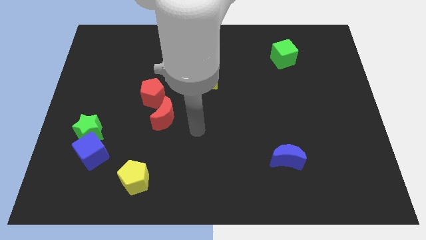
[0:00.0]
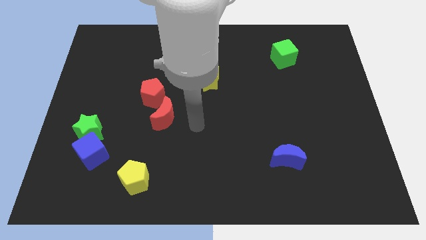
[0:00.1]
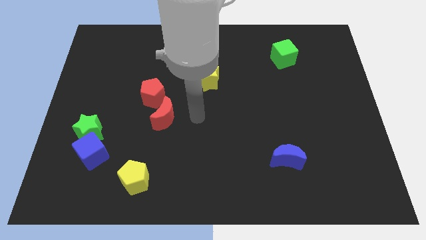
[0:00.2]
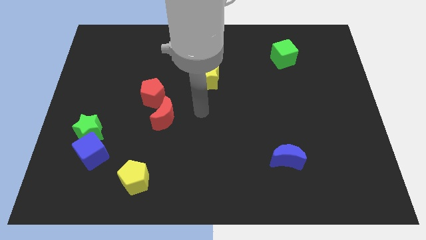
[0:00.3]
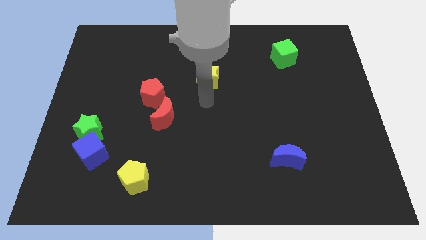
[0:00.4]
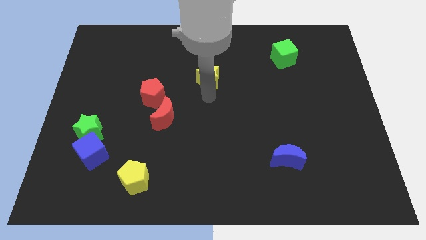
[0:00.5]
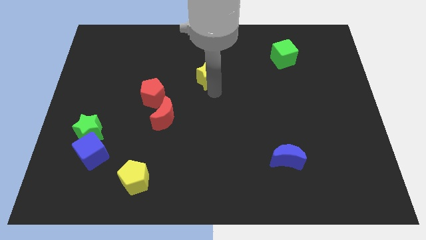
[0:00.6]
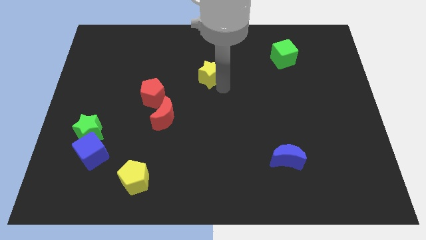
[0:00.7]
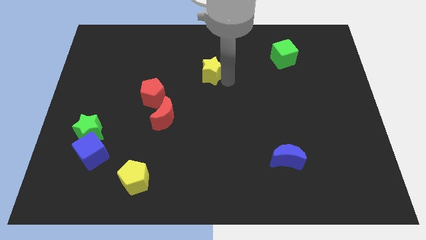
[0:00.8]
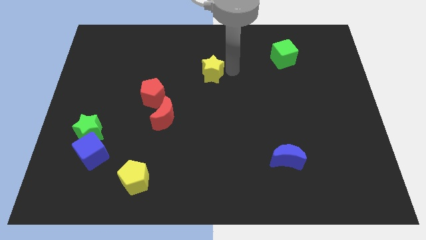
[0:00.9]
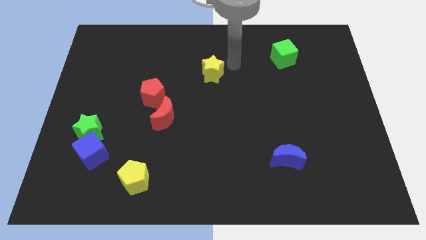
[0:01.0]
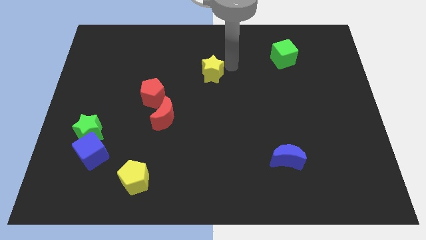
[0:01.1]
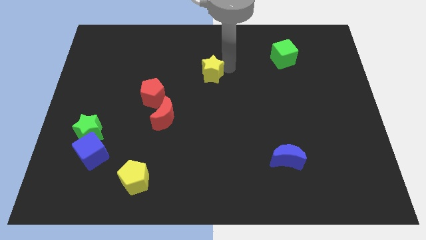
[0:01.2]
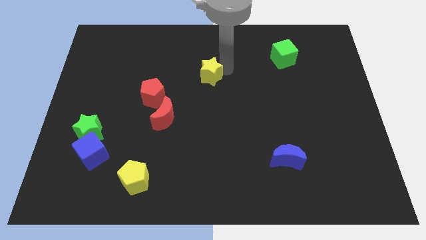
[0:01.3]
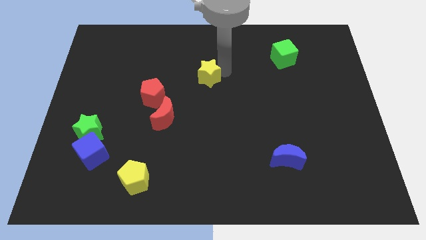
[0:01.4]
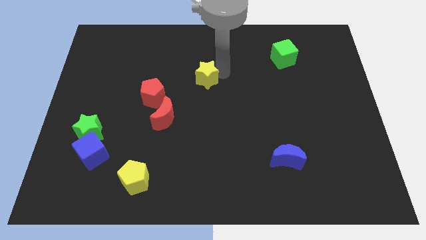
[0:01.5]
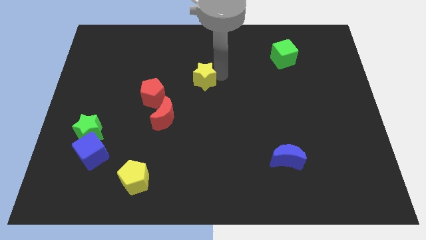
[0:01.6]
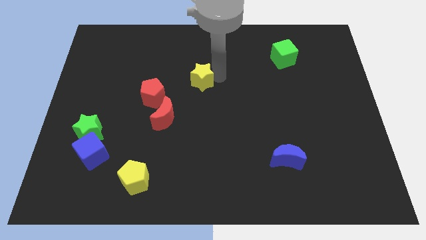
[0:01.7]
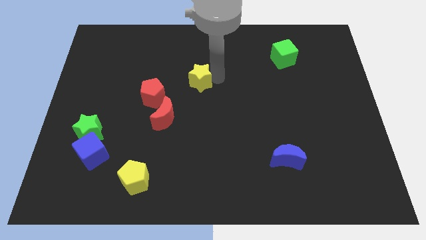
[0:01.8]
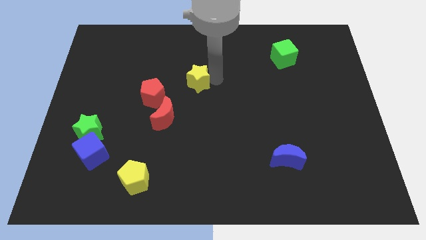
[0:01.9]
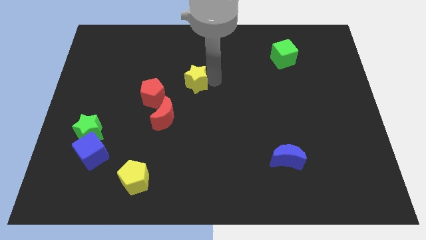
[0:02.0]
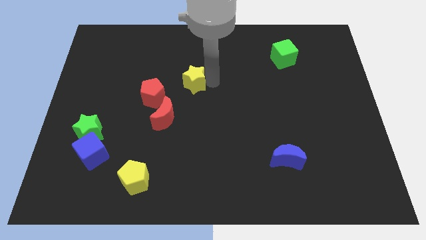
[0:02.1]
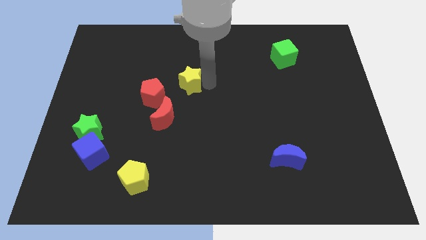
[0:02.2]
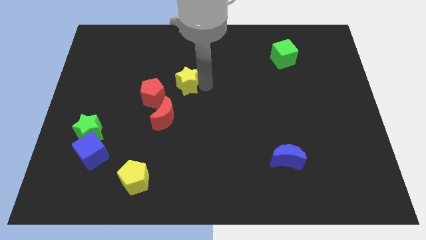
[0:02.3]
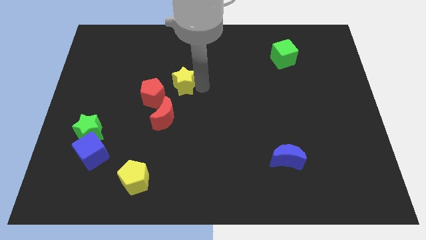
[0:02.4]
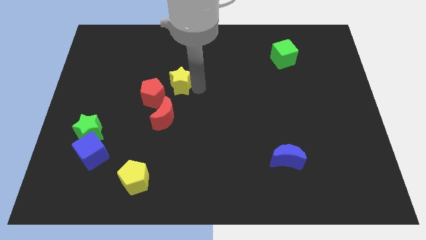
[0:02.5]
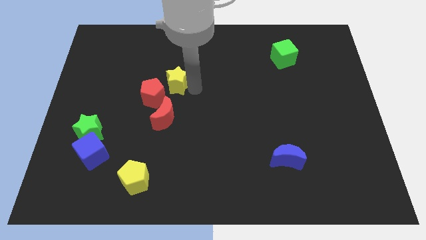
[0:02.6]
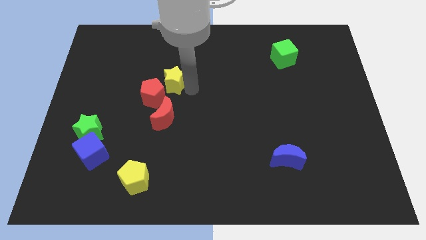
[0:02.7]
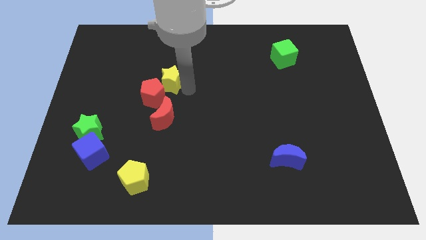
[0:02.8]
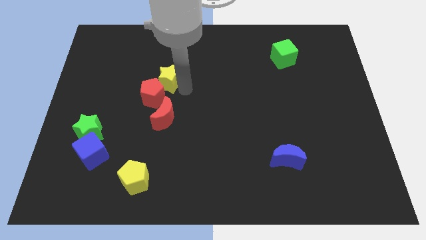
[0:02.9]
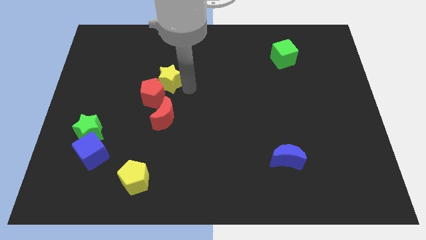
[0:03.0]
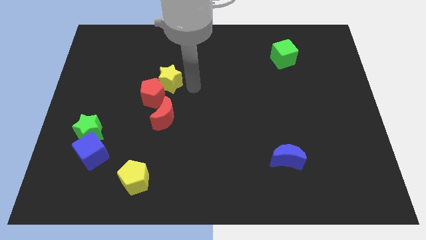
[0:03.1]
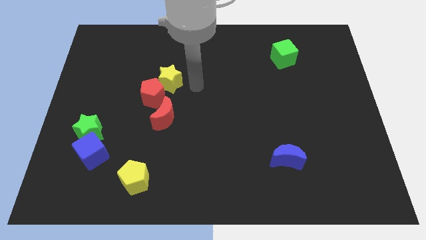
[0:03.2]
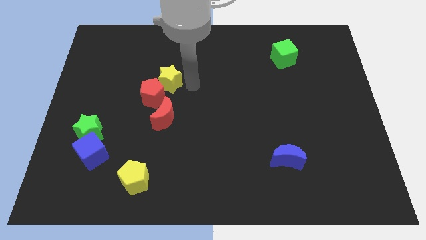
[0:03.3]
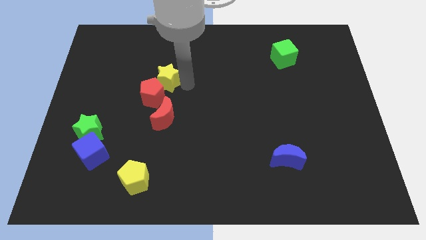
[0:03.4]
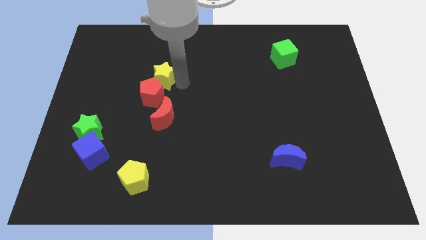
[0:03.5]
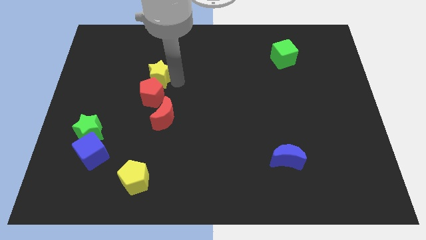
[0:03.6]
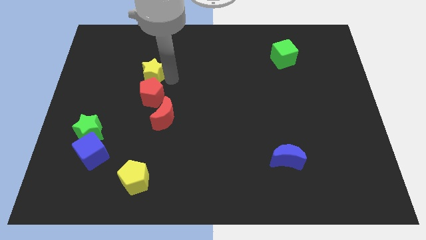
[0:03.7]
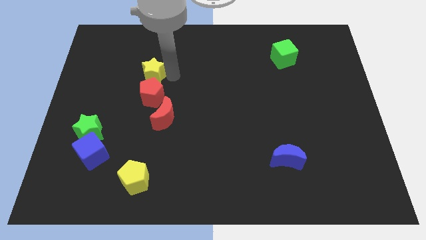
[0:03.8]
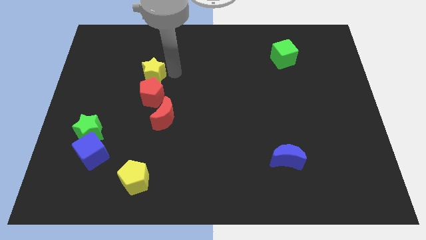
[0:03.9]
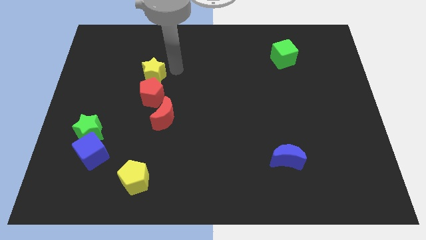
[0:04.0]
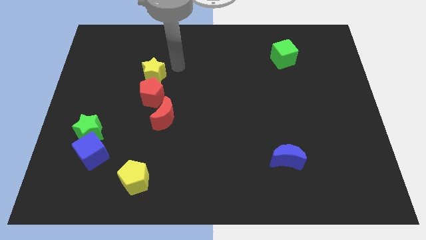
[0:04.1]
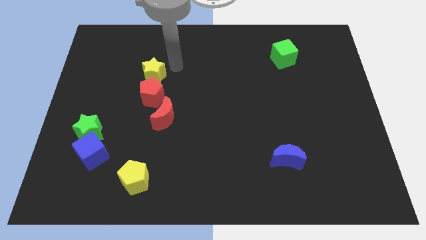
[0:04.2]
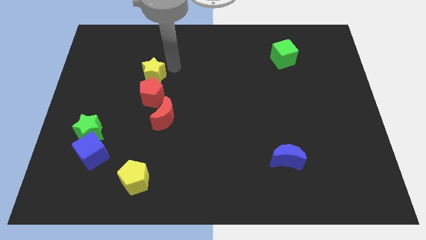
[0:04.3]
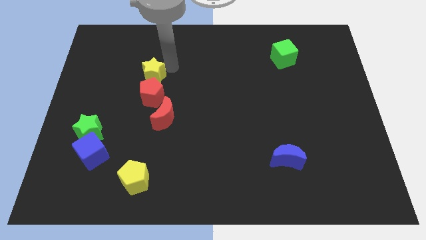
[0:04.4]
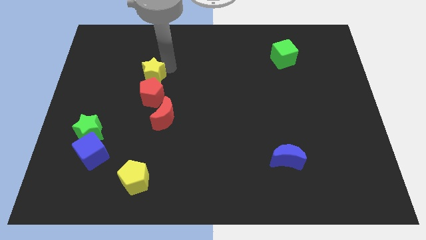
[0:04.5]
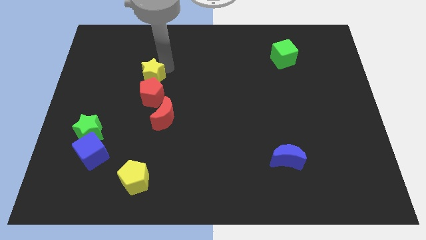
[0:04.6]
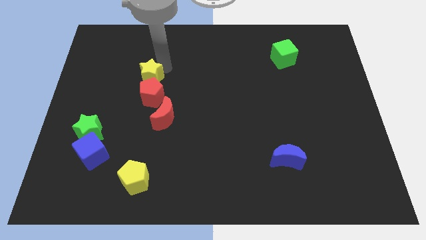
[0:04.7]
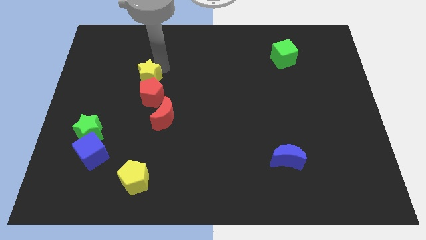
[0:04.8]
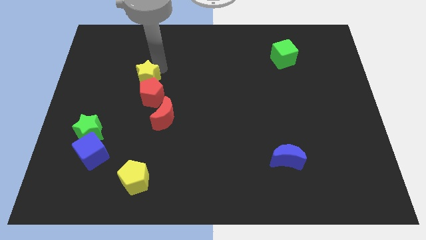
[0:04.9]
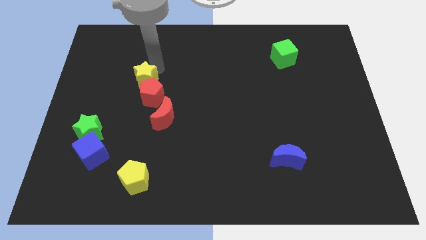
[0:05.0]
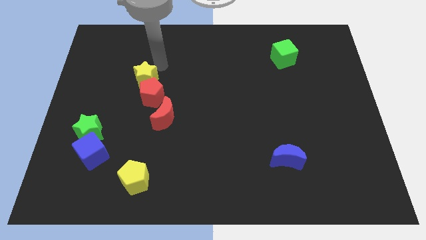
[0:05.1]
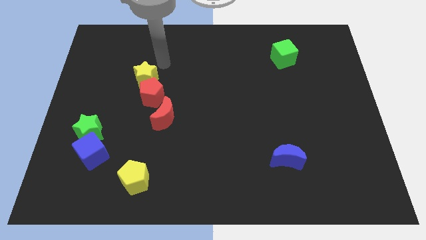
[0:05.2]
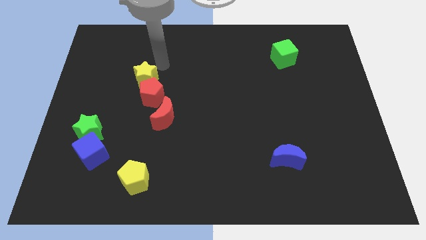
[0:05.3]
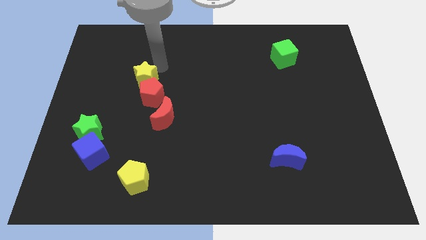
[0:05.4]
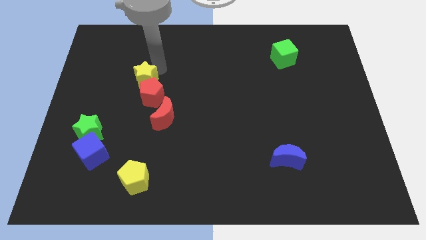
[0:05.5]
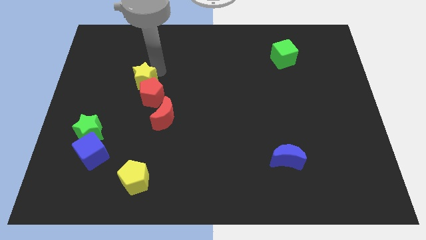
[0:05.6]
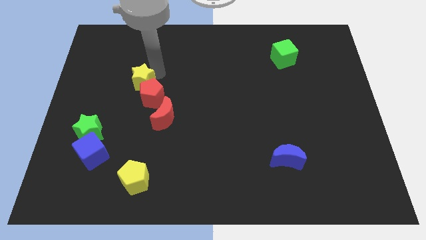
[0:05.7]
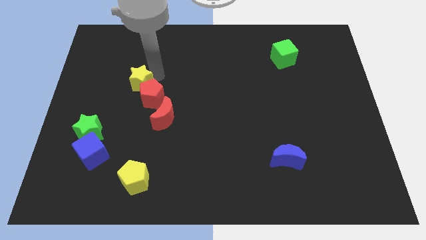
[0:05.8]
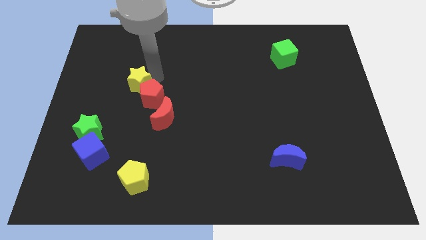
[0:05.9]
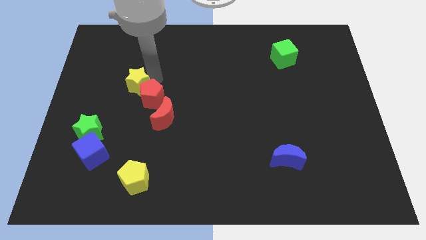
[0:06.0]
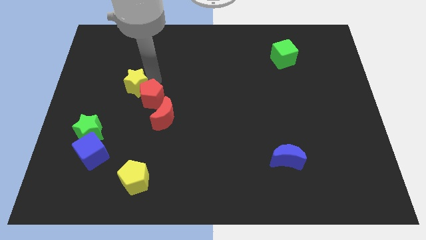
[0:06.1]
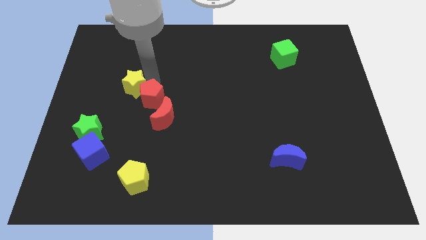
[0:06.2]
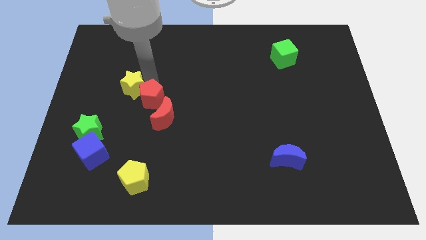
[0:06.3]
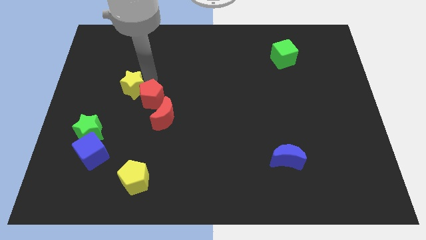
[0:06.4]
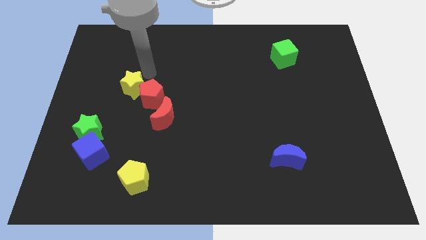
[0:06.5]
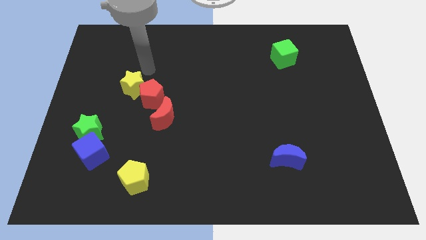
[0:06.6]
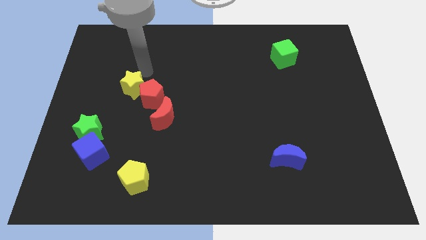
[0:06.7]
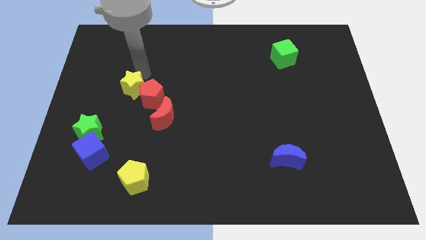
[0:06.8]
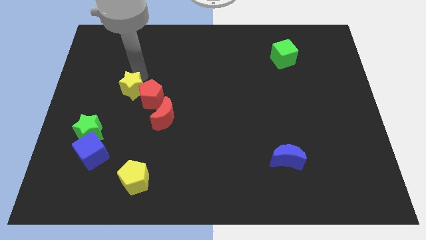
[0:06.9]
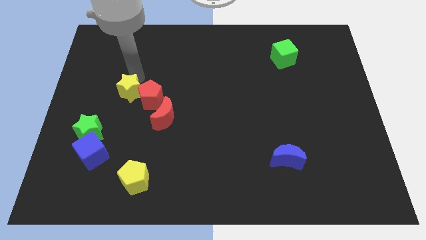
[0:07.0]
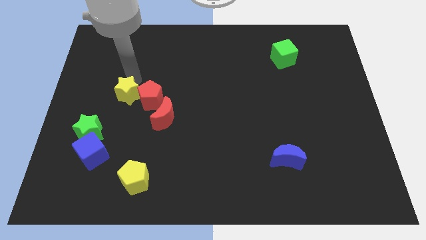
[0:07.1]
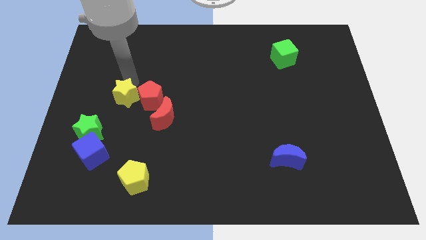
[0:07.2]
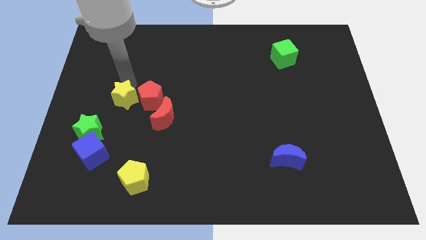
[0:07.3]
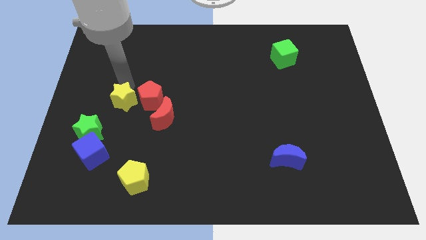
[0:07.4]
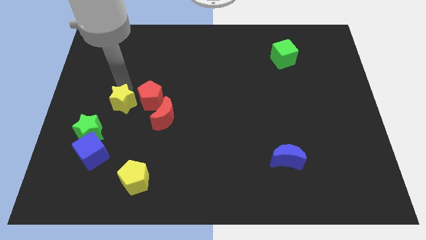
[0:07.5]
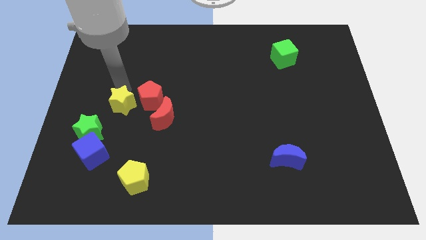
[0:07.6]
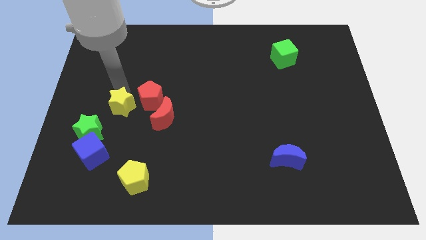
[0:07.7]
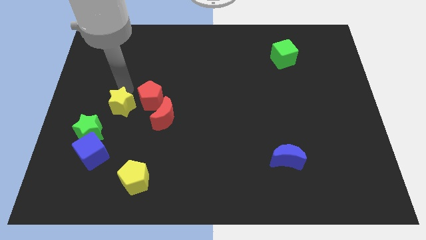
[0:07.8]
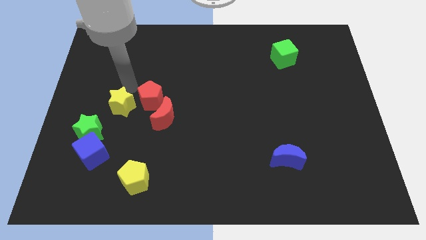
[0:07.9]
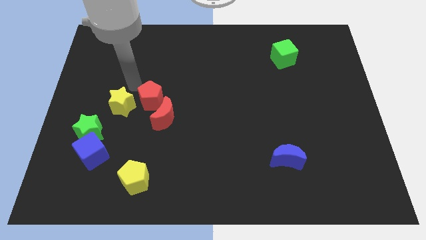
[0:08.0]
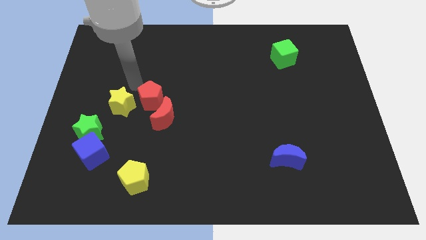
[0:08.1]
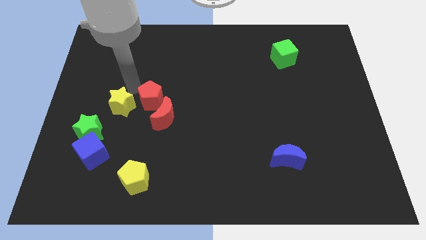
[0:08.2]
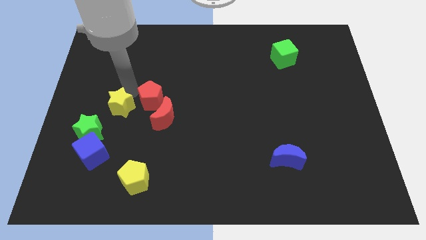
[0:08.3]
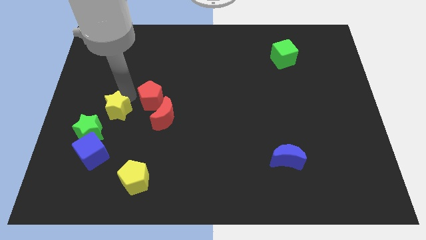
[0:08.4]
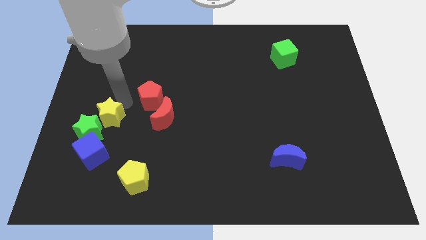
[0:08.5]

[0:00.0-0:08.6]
push the yellow star next to the green star
